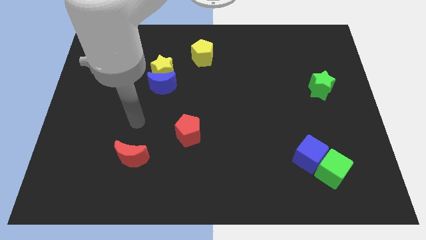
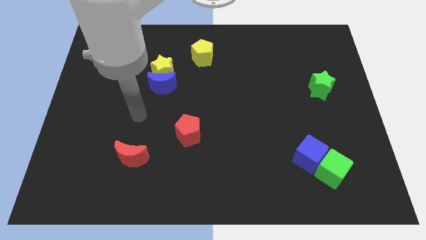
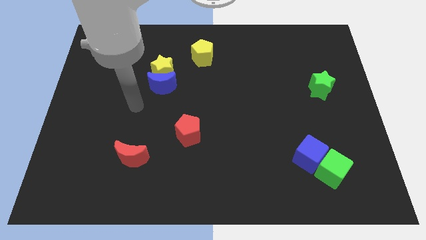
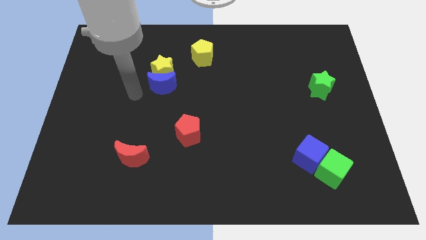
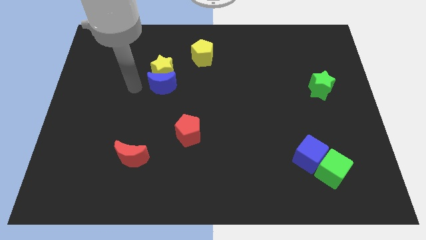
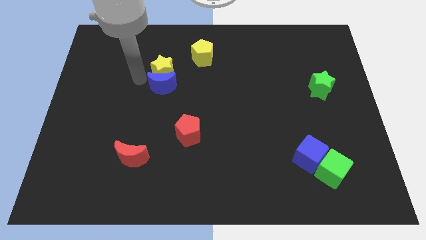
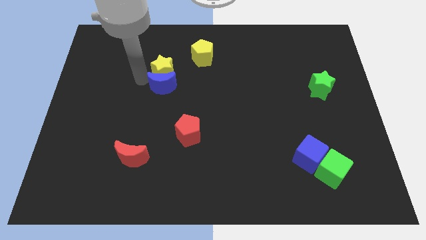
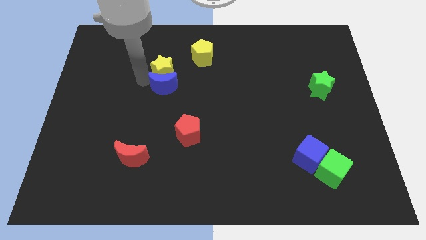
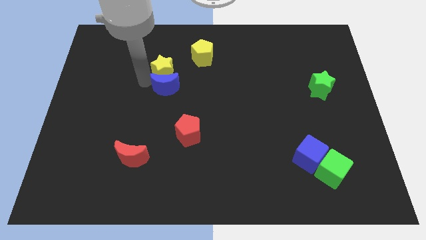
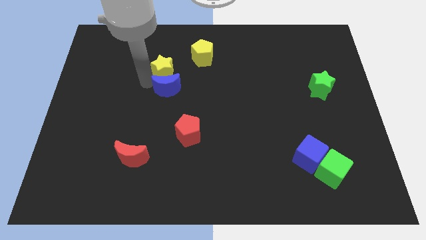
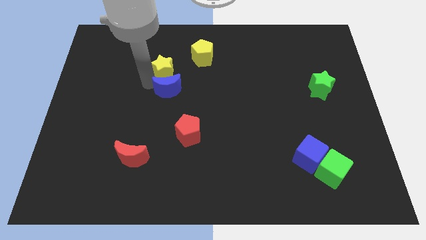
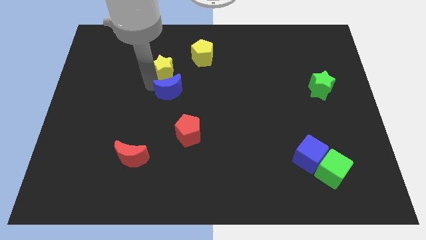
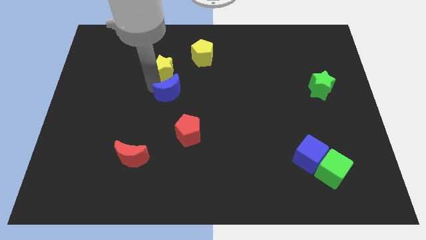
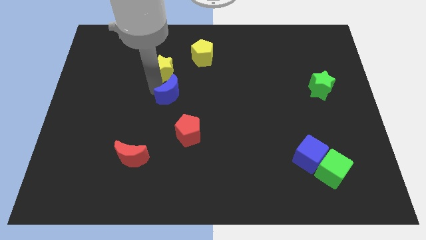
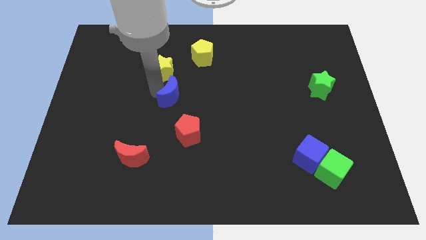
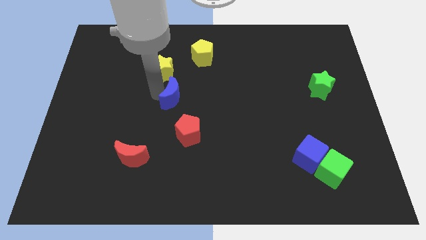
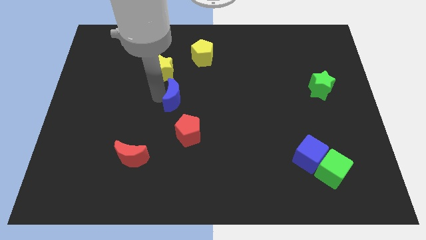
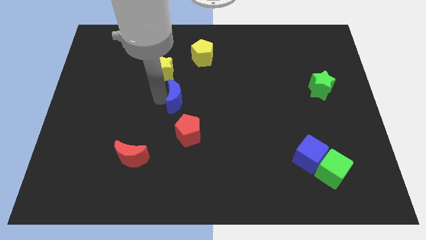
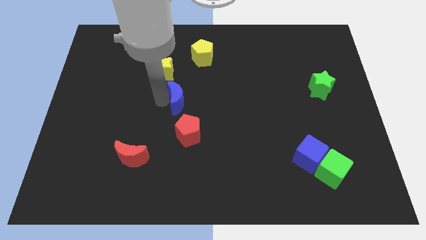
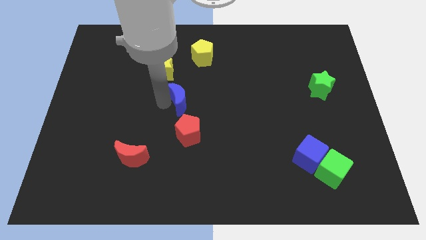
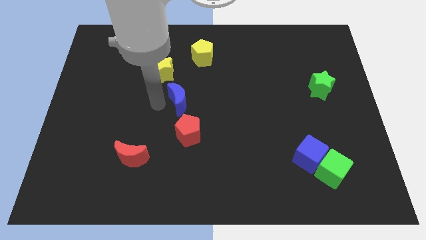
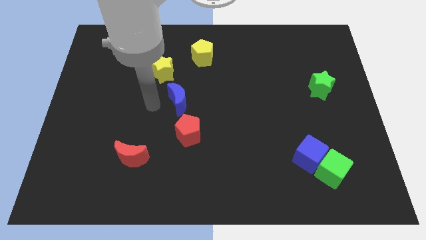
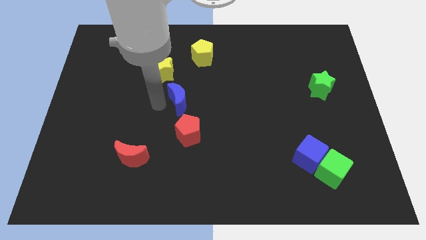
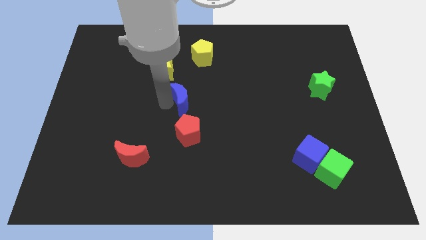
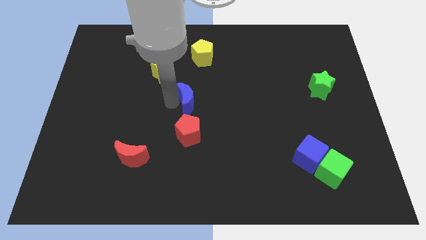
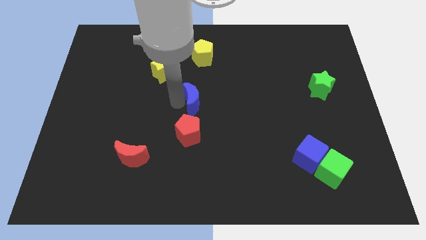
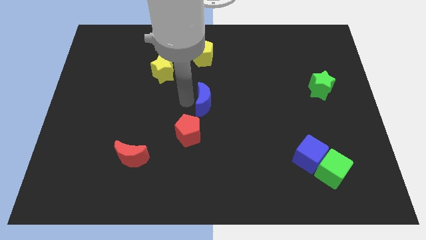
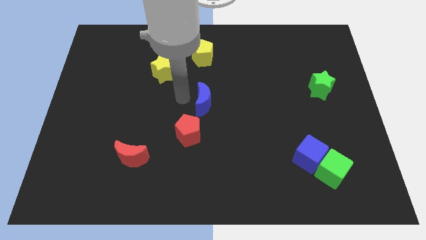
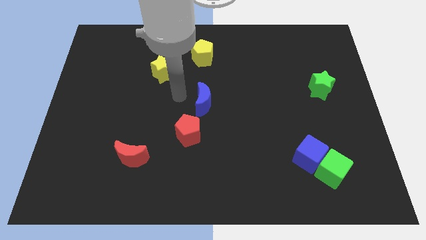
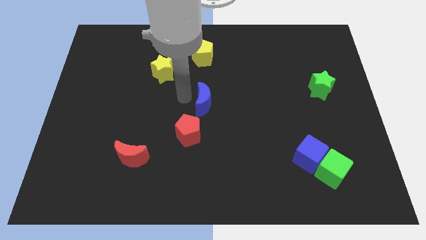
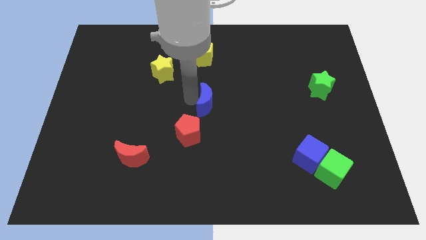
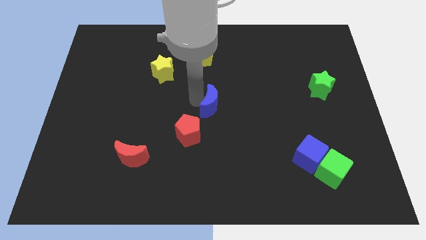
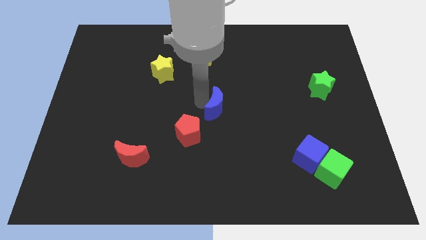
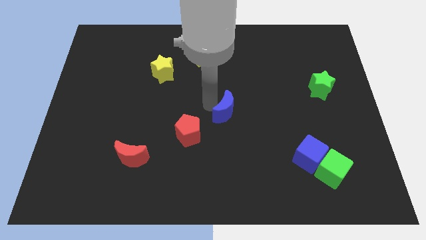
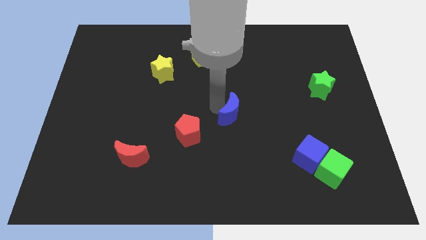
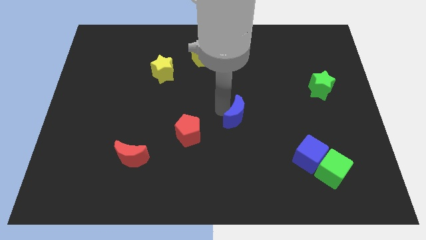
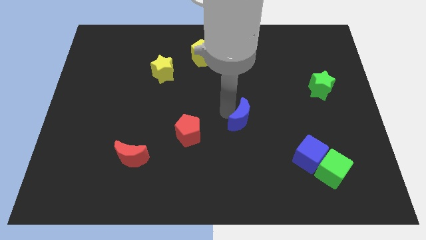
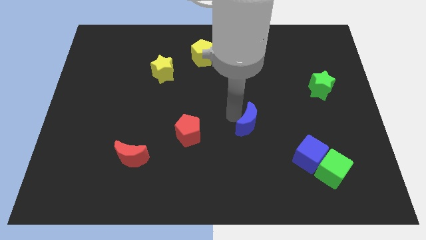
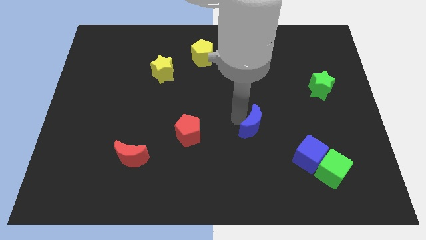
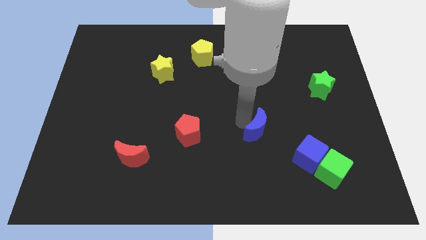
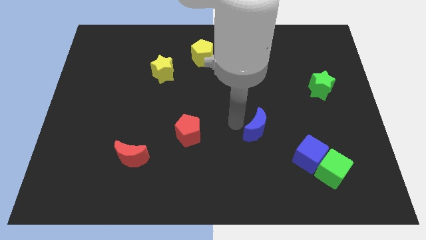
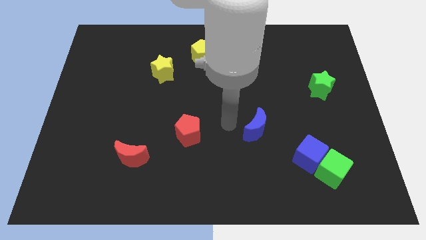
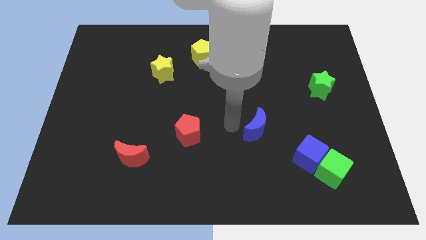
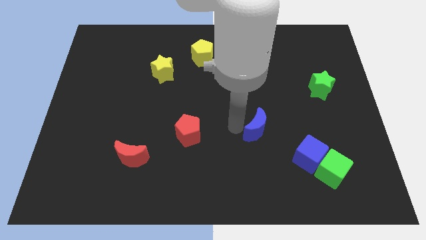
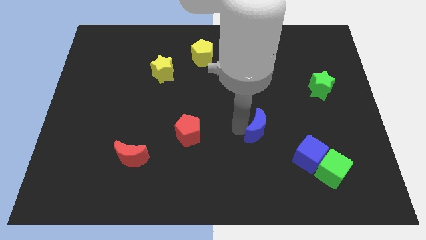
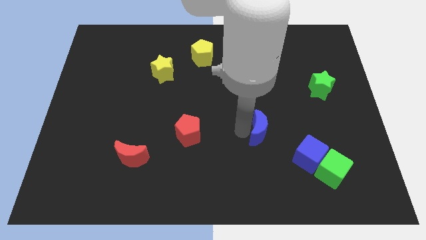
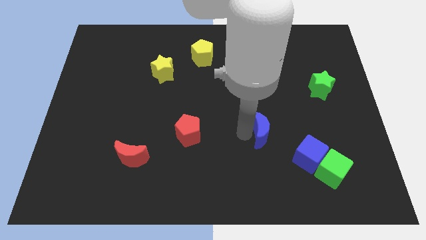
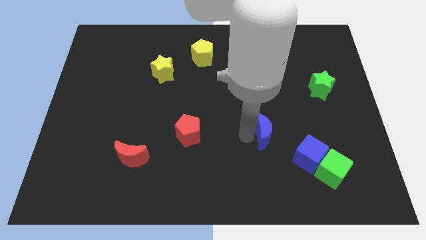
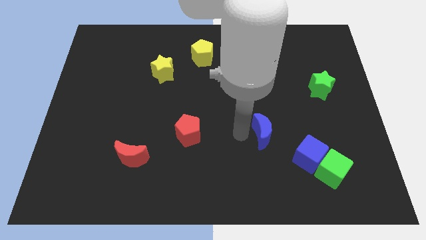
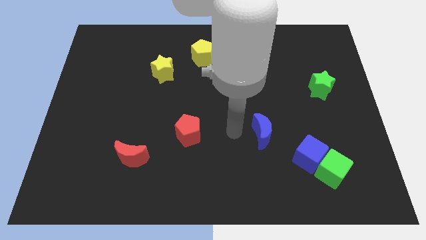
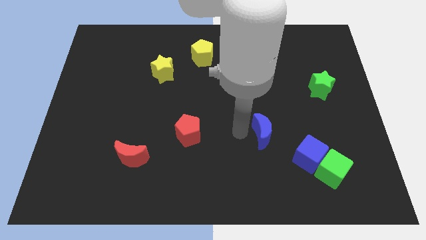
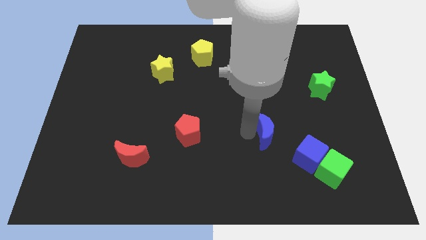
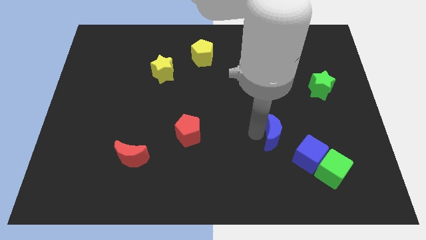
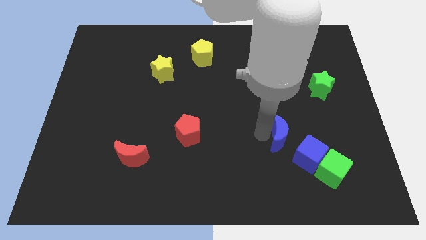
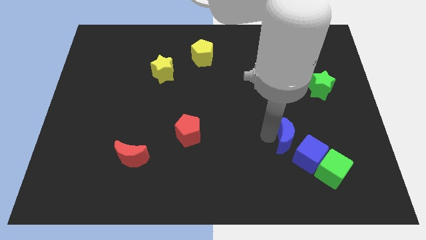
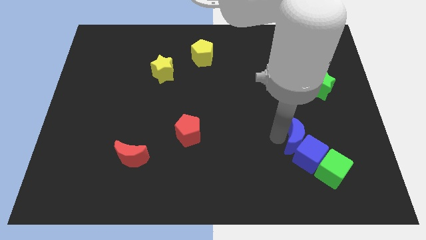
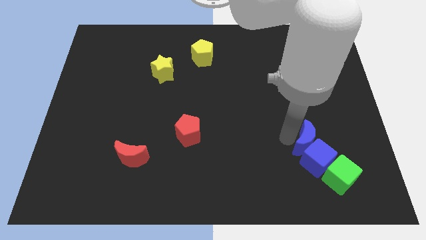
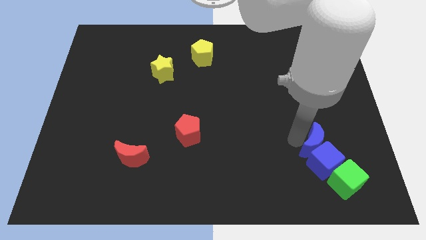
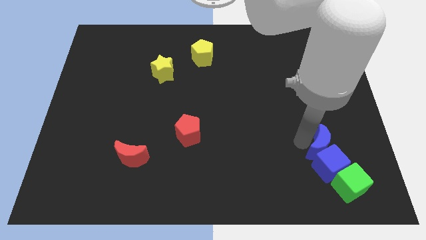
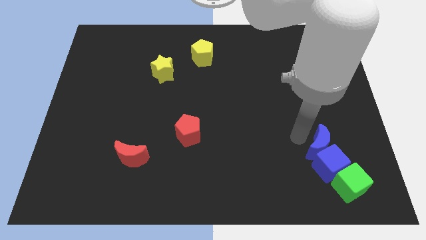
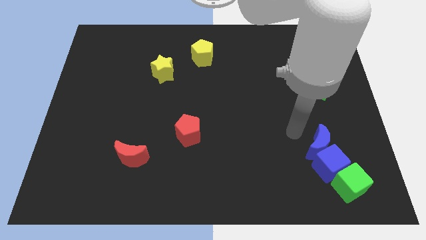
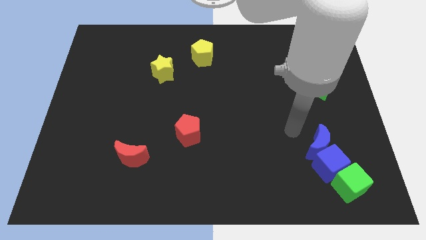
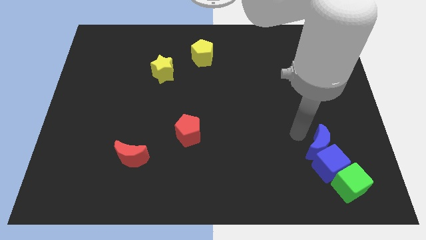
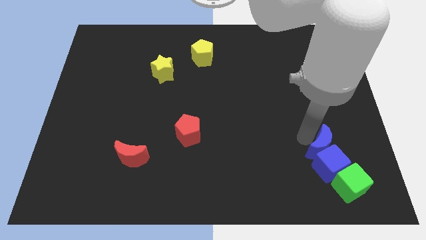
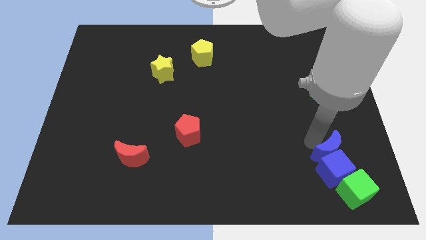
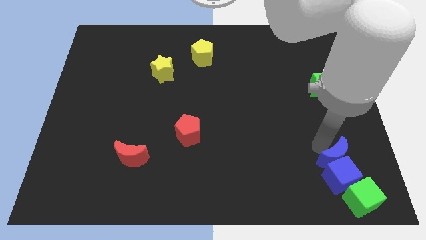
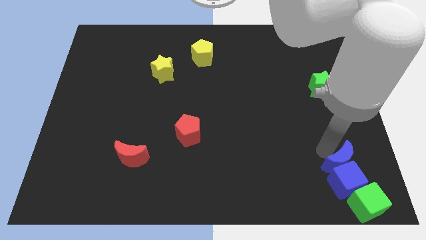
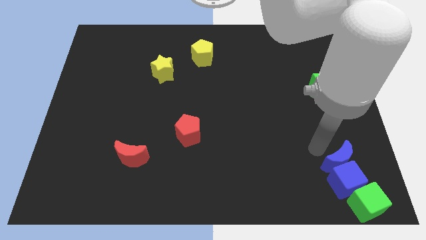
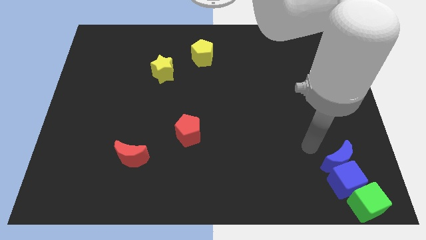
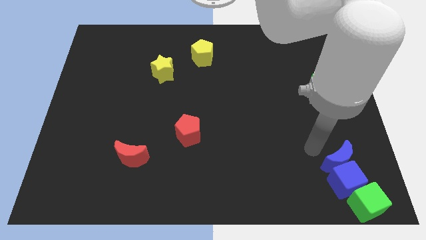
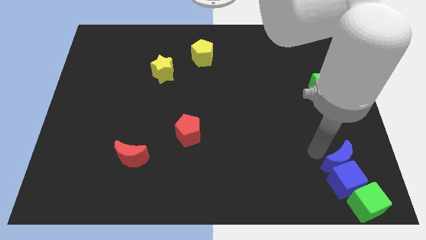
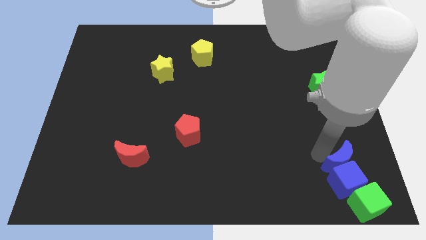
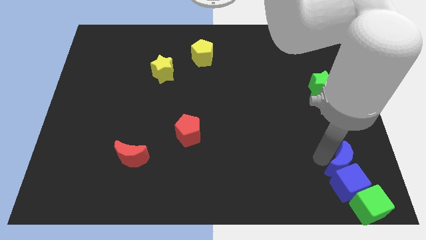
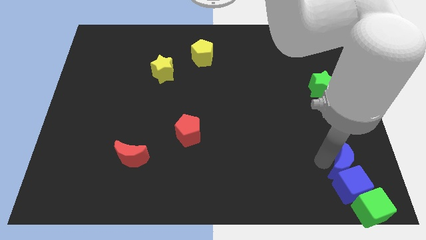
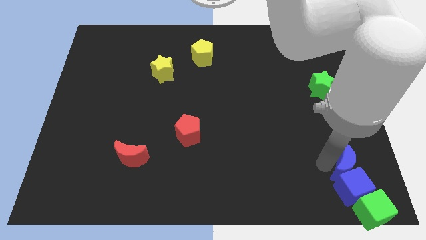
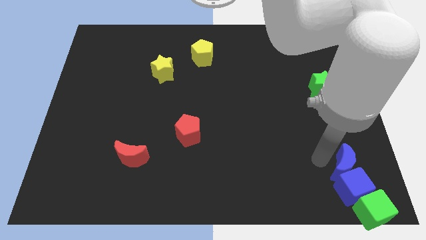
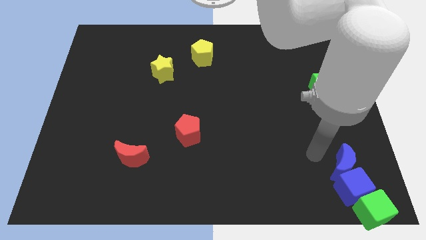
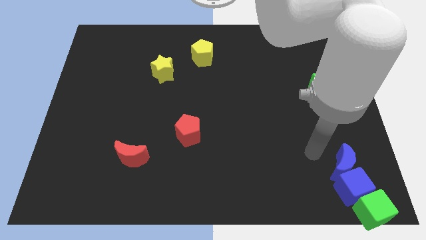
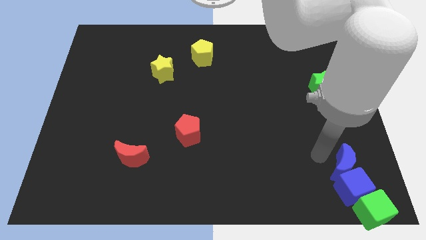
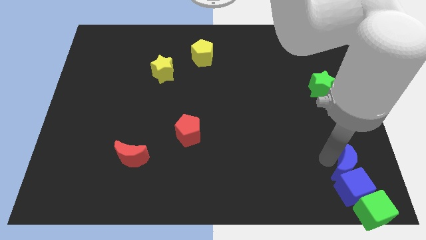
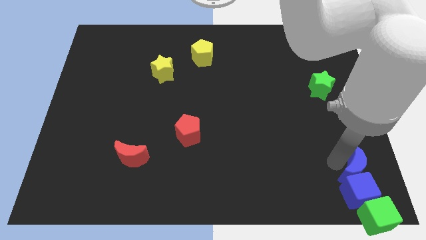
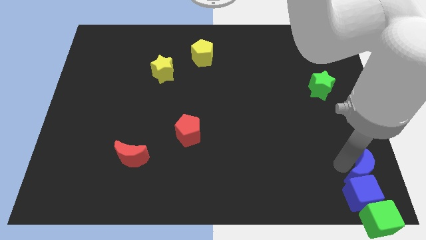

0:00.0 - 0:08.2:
slide the blue moon to the bottom right of the board
